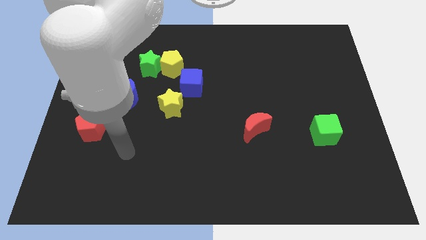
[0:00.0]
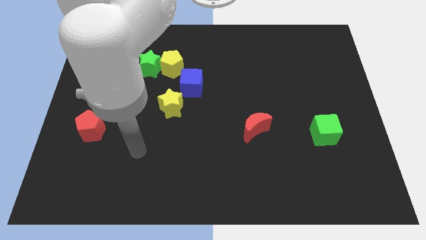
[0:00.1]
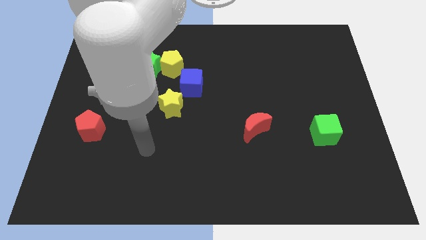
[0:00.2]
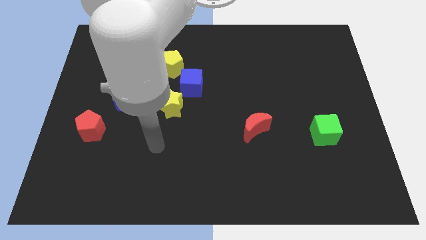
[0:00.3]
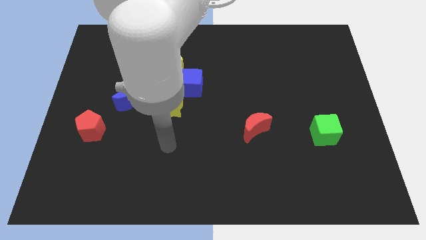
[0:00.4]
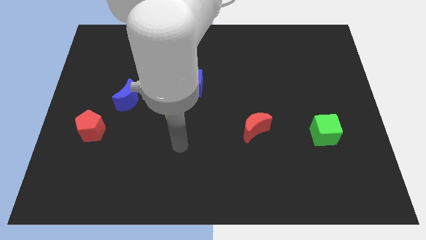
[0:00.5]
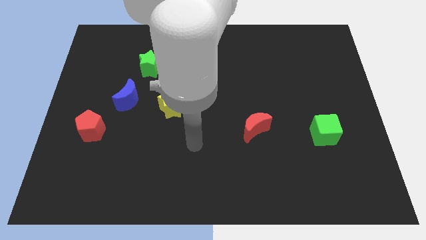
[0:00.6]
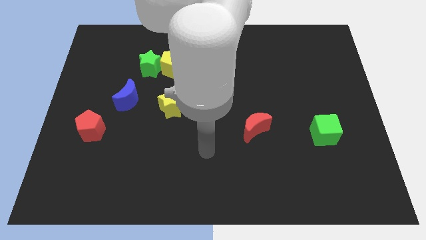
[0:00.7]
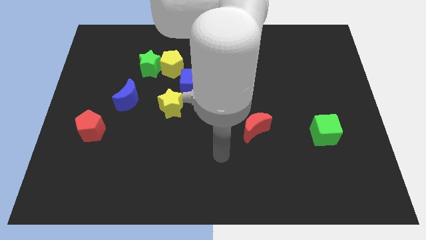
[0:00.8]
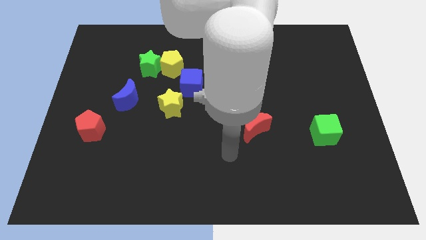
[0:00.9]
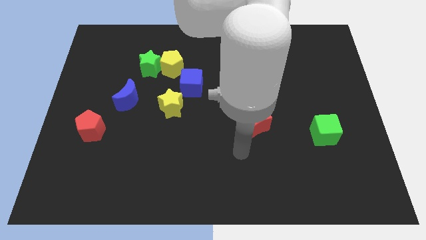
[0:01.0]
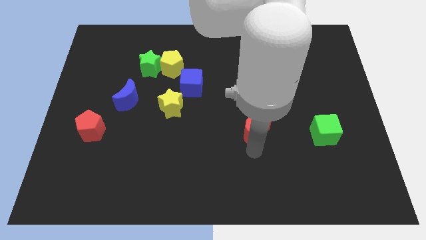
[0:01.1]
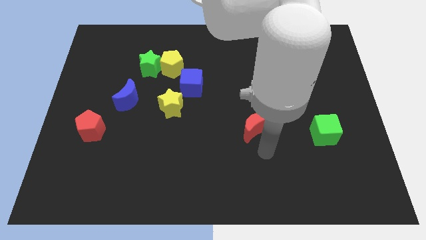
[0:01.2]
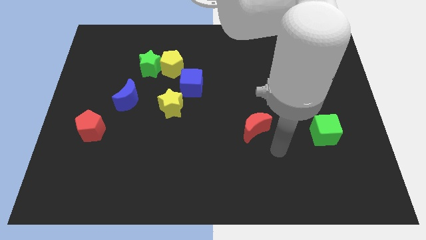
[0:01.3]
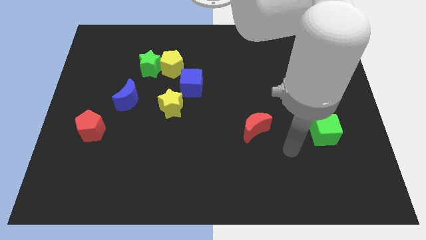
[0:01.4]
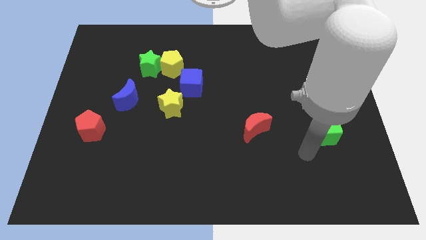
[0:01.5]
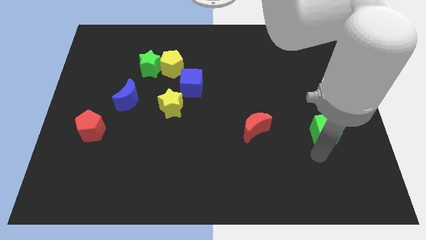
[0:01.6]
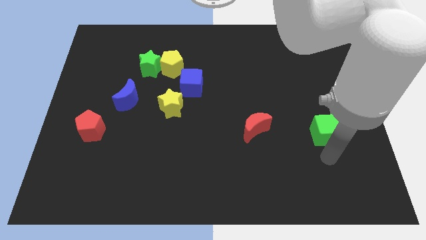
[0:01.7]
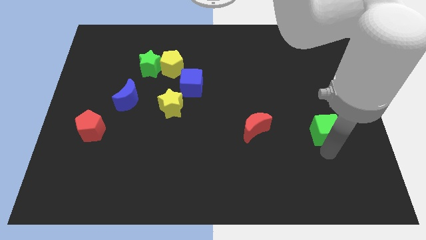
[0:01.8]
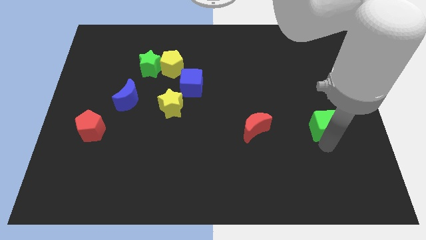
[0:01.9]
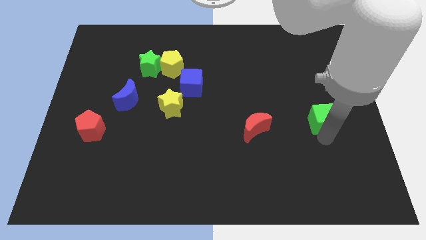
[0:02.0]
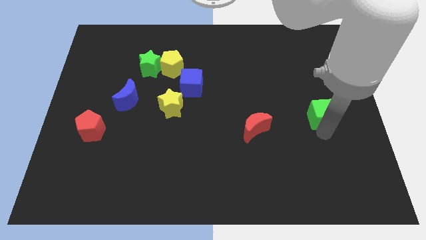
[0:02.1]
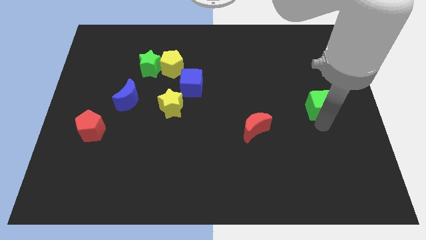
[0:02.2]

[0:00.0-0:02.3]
slide the green cube up somewhat

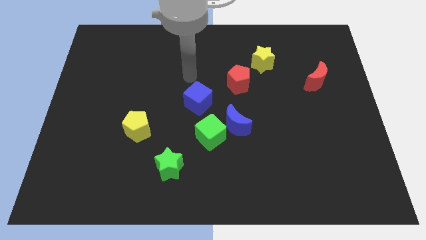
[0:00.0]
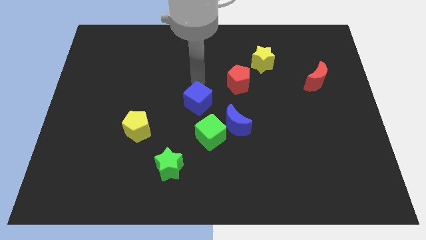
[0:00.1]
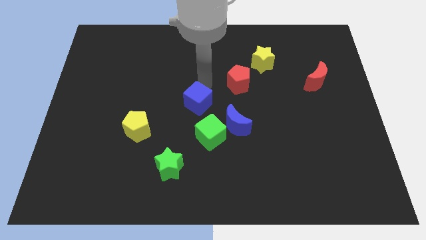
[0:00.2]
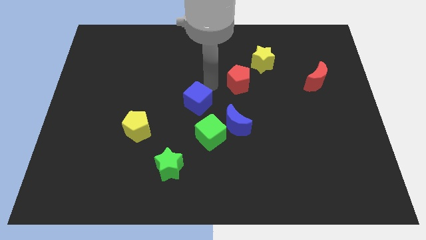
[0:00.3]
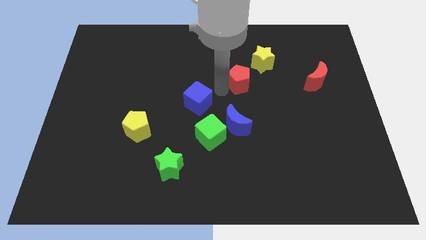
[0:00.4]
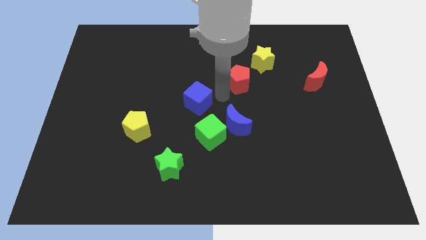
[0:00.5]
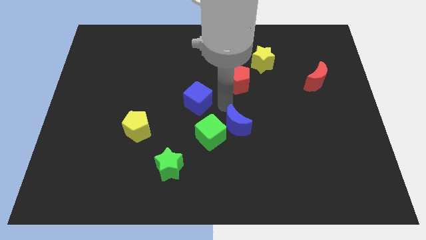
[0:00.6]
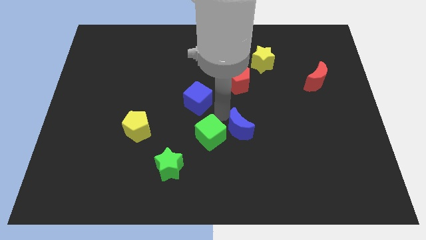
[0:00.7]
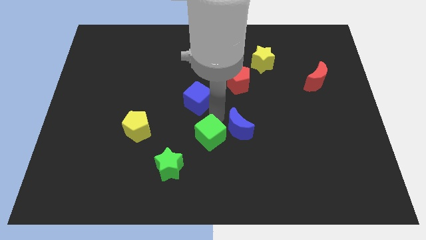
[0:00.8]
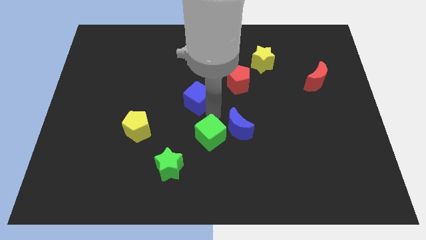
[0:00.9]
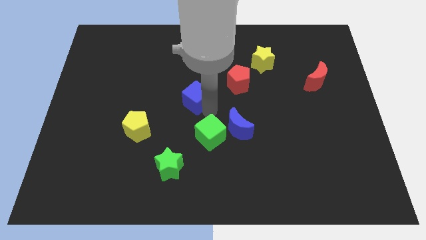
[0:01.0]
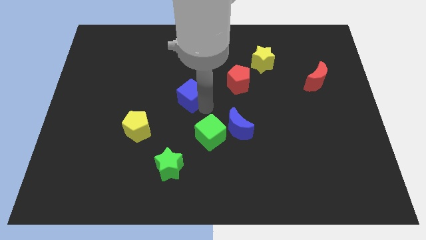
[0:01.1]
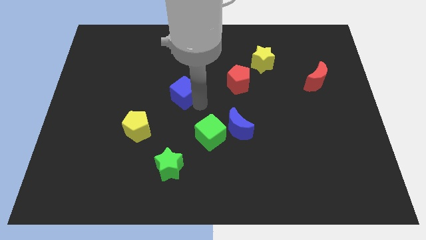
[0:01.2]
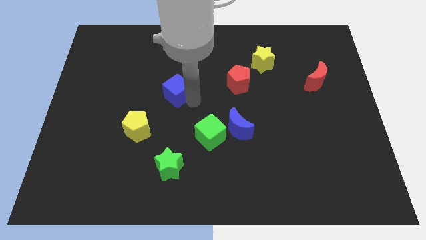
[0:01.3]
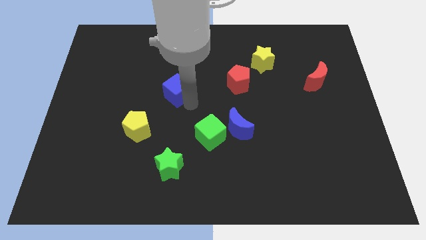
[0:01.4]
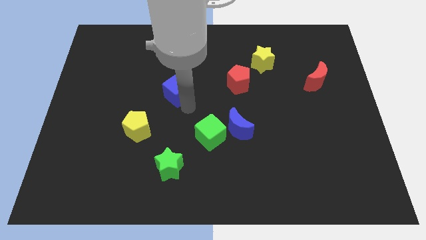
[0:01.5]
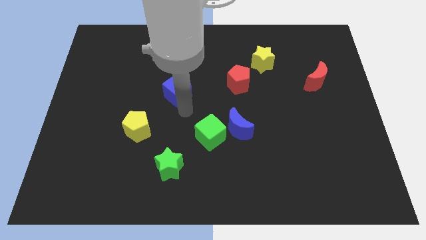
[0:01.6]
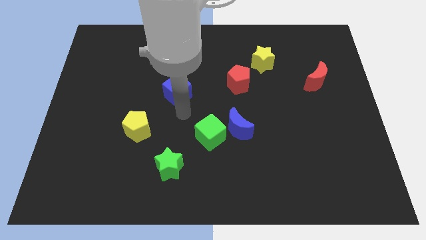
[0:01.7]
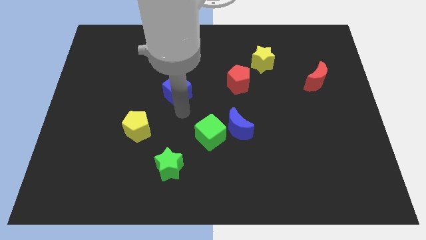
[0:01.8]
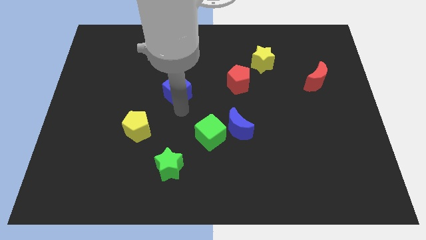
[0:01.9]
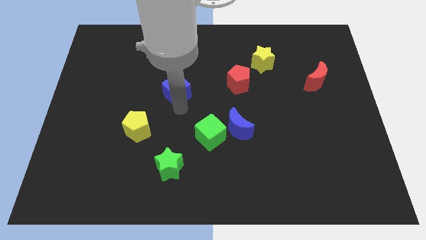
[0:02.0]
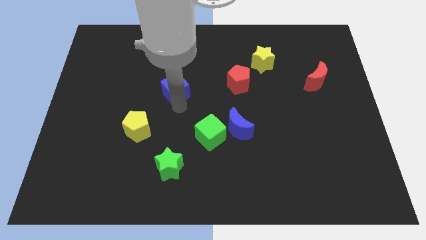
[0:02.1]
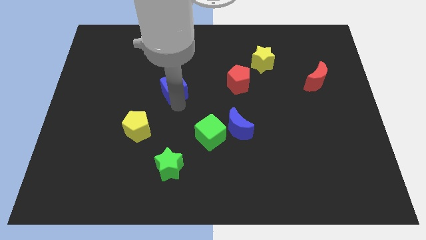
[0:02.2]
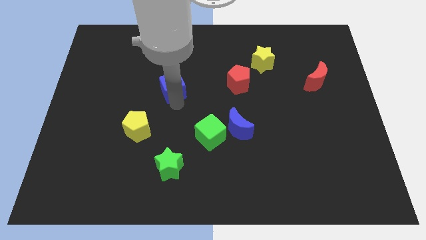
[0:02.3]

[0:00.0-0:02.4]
slightly slide the blue cube up and then left

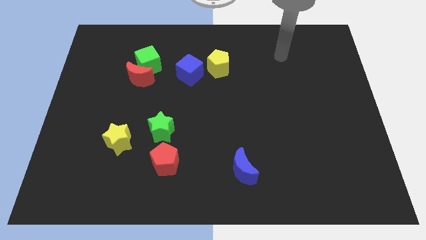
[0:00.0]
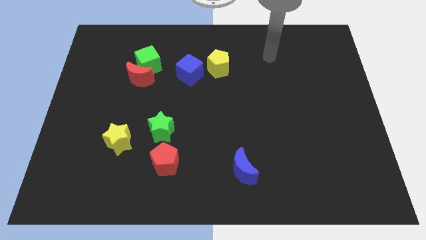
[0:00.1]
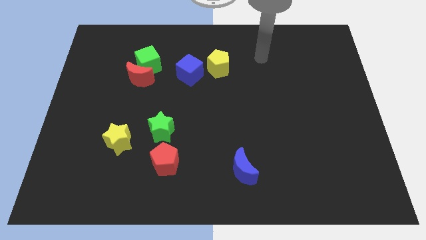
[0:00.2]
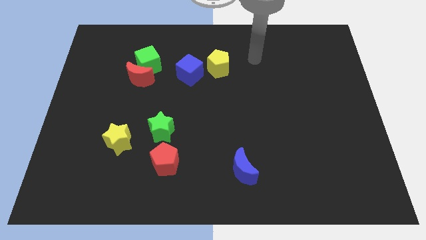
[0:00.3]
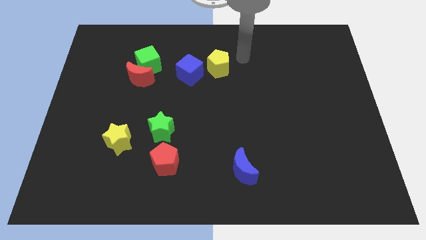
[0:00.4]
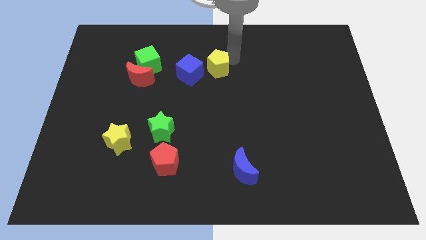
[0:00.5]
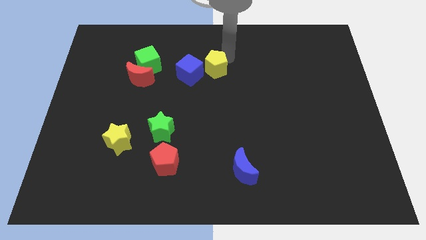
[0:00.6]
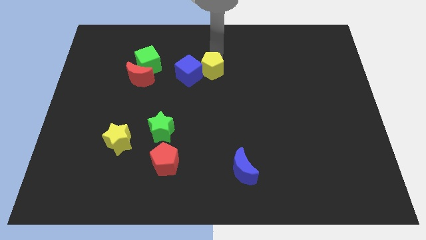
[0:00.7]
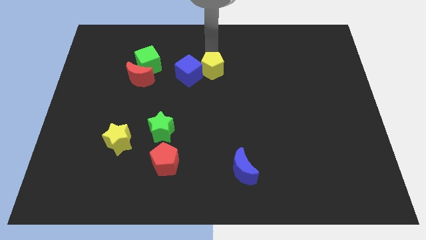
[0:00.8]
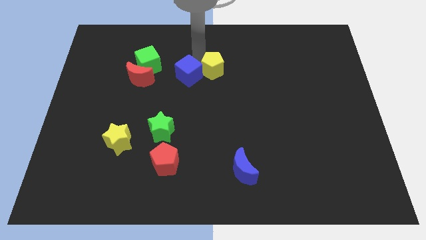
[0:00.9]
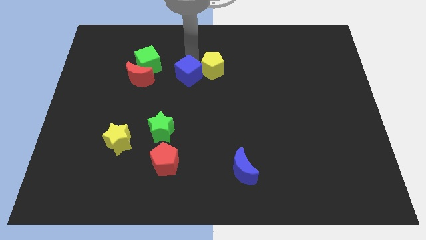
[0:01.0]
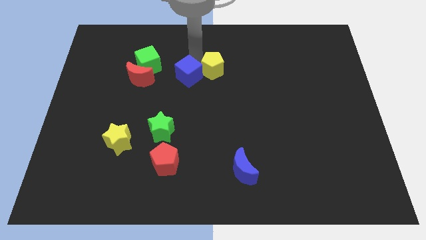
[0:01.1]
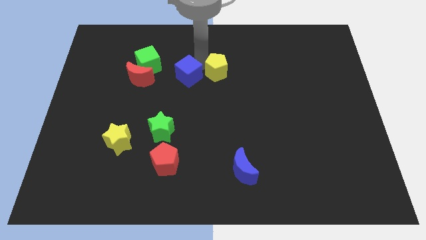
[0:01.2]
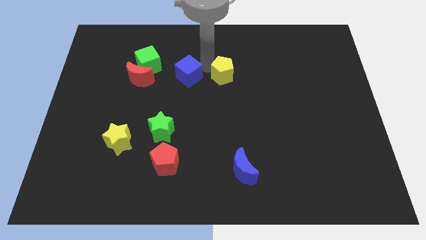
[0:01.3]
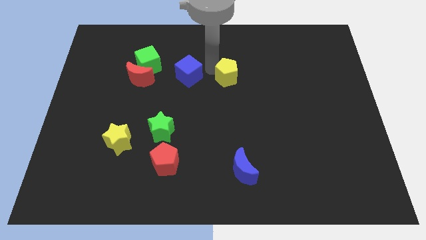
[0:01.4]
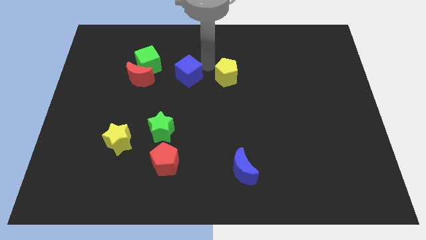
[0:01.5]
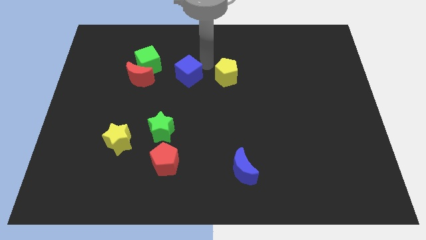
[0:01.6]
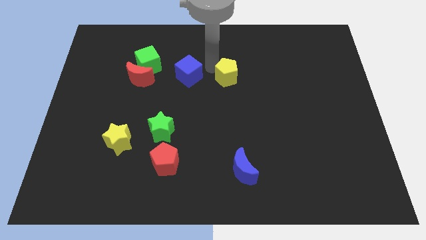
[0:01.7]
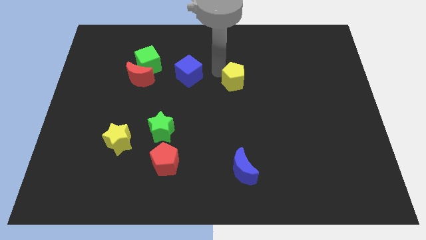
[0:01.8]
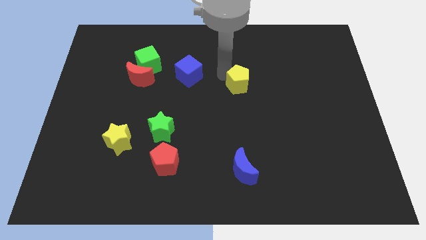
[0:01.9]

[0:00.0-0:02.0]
push the yellow pentagon down and to the right diagonally a little bit

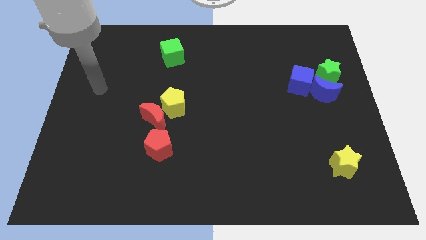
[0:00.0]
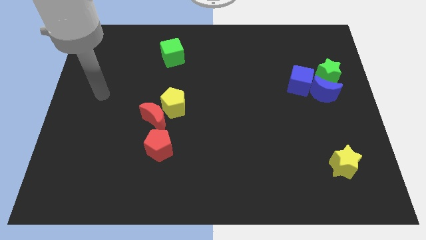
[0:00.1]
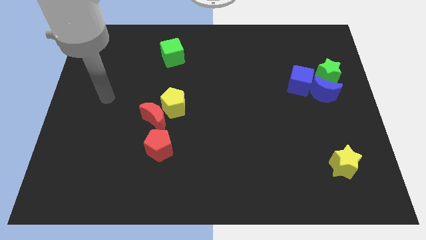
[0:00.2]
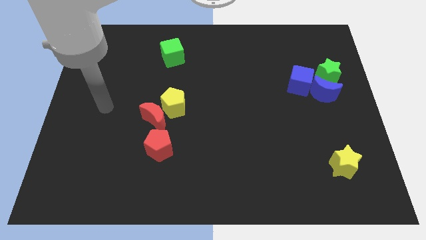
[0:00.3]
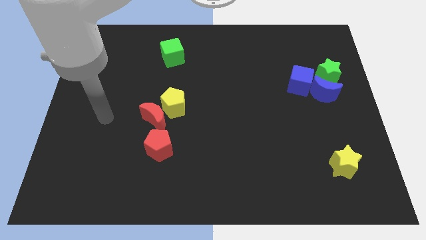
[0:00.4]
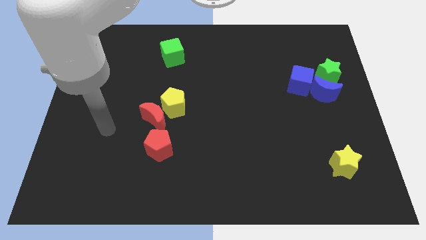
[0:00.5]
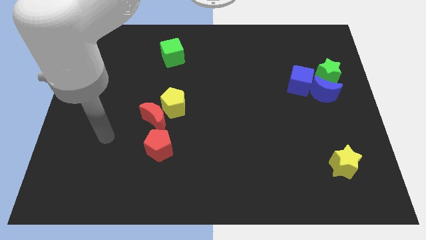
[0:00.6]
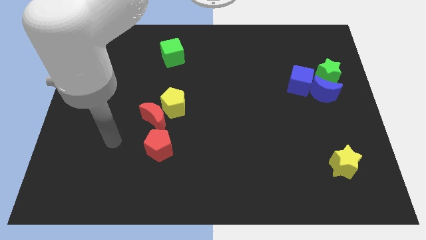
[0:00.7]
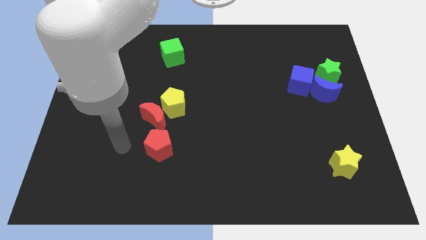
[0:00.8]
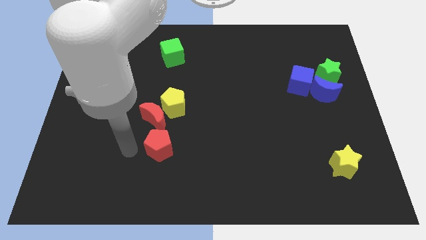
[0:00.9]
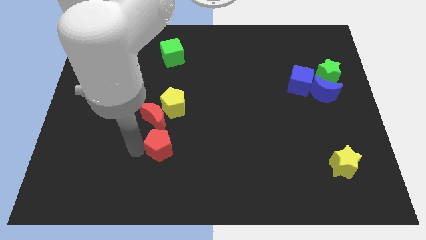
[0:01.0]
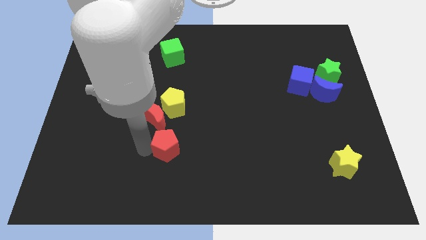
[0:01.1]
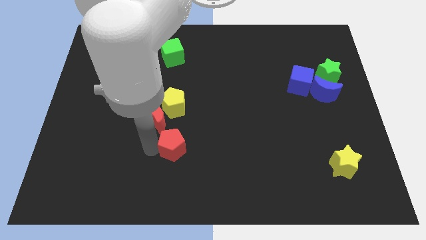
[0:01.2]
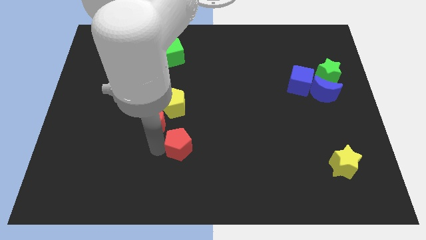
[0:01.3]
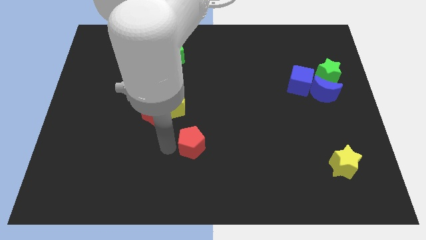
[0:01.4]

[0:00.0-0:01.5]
push the red pentagon a bit to the right
